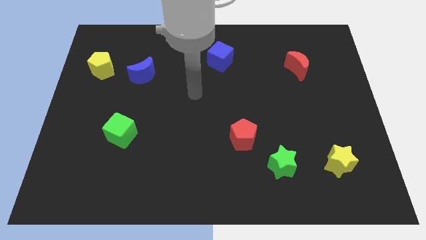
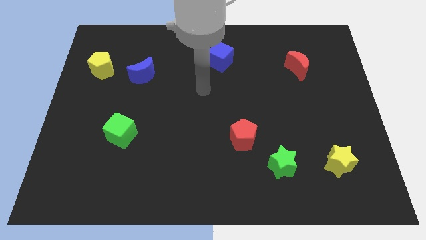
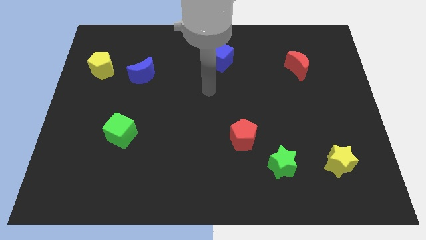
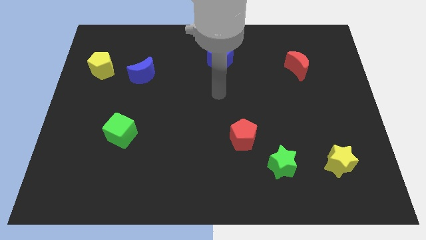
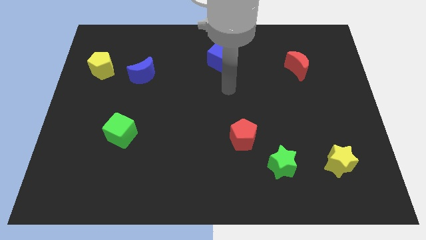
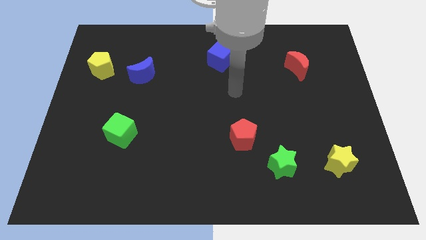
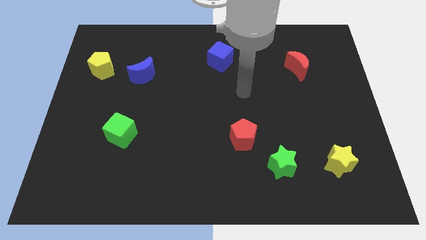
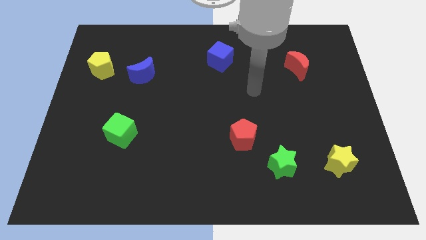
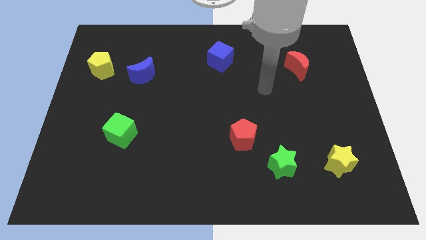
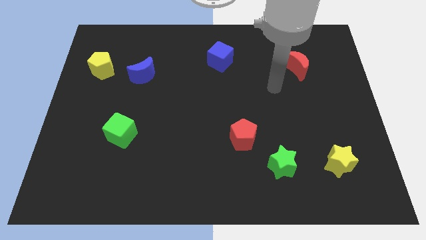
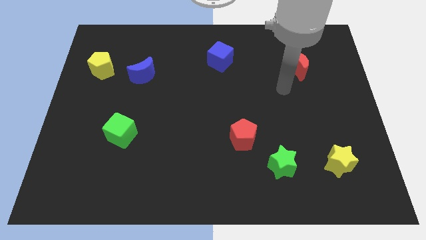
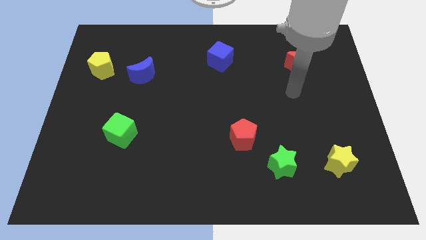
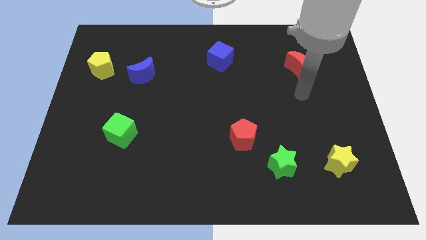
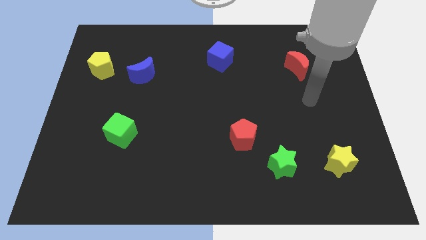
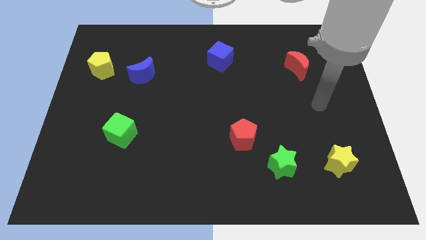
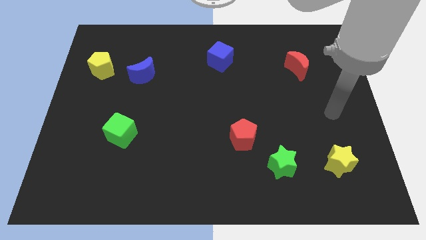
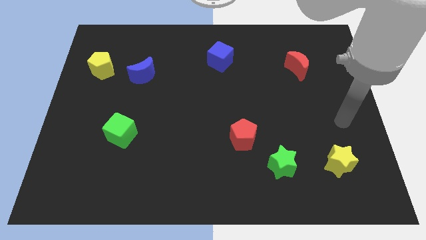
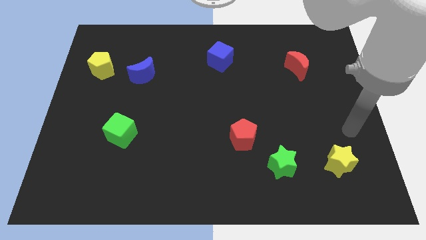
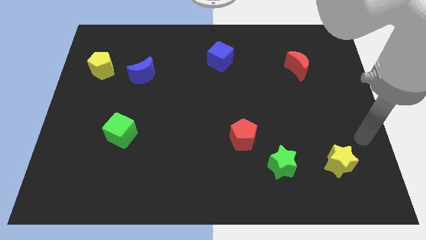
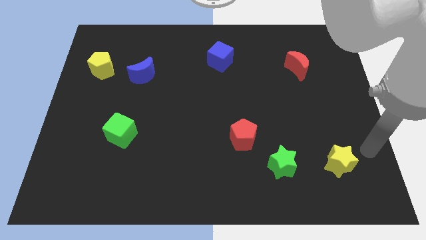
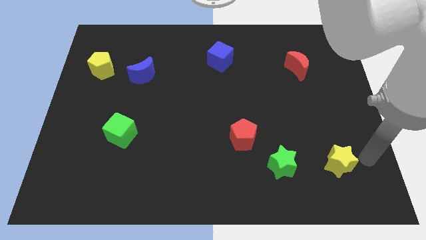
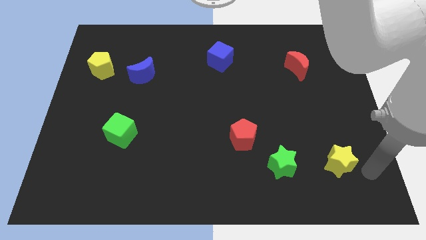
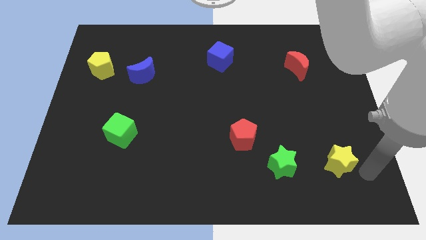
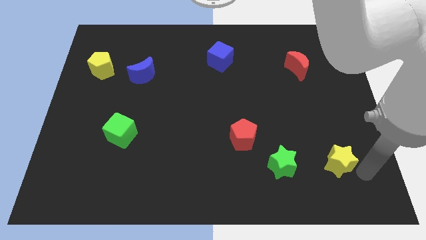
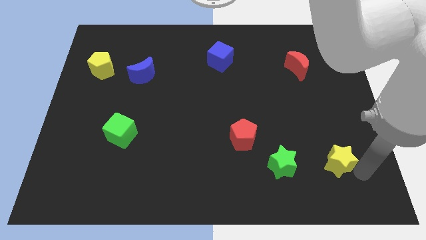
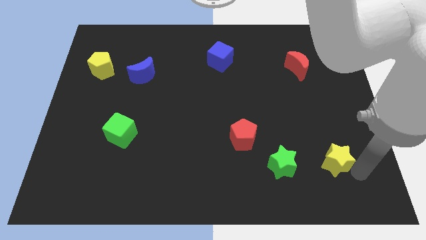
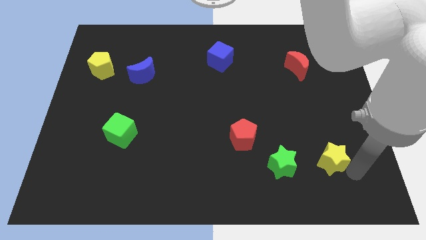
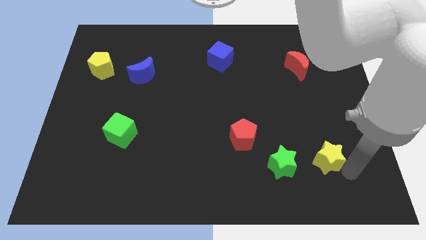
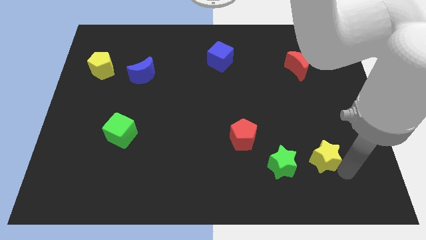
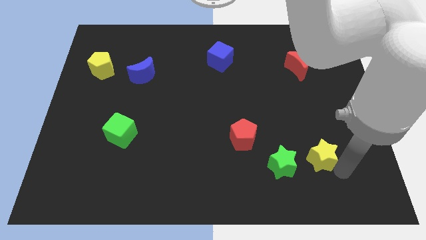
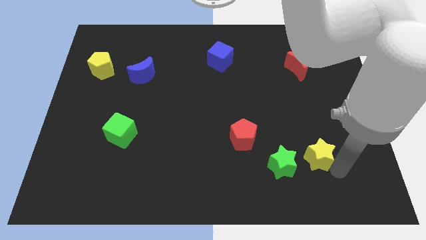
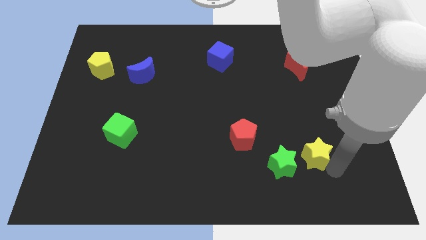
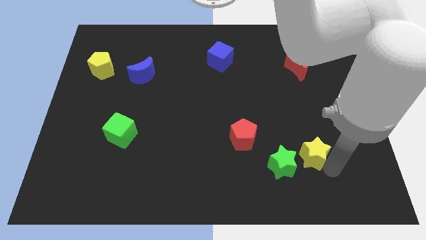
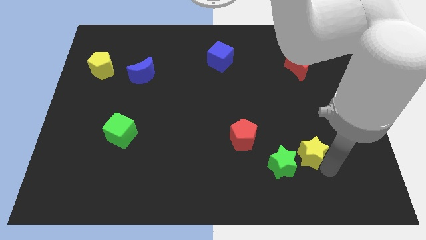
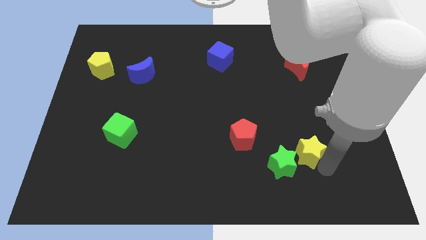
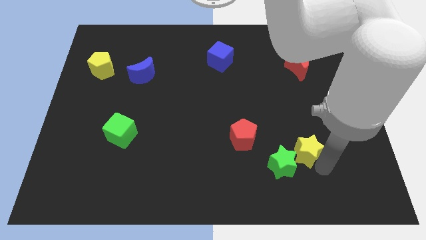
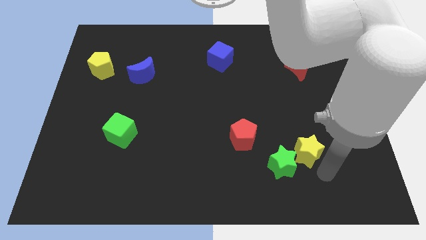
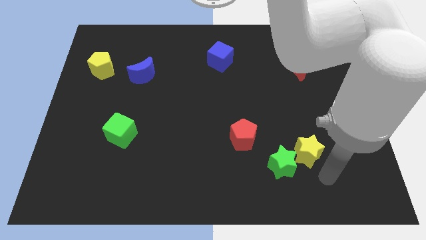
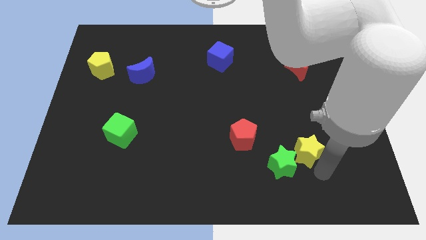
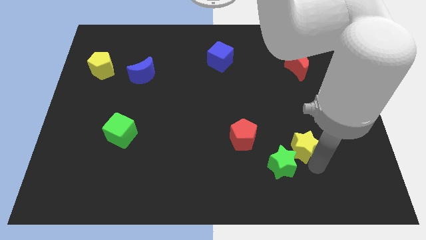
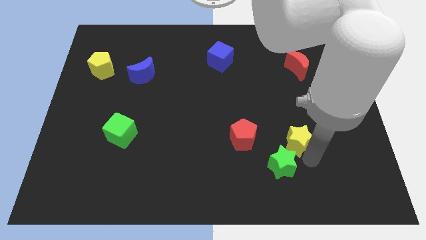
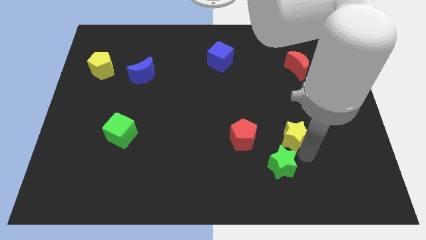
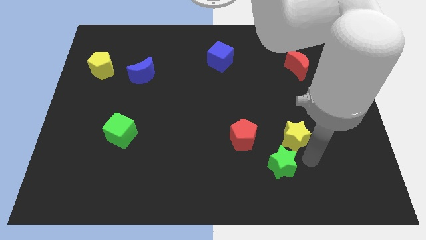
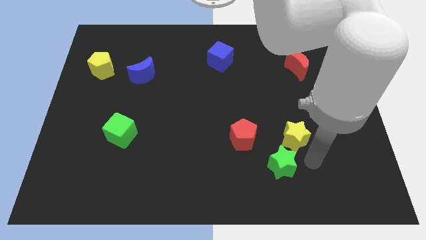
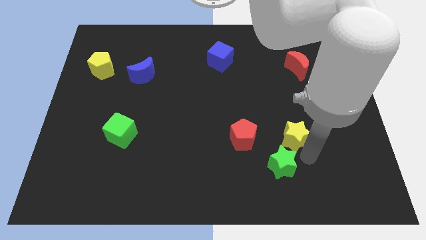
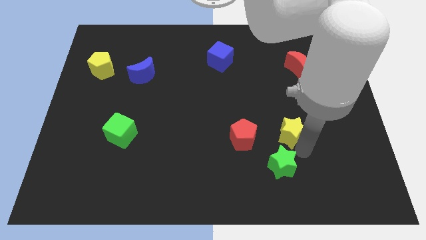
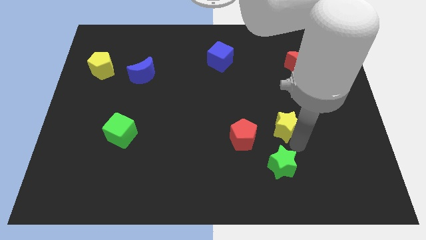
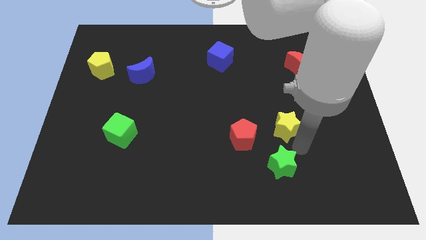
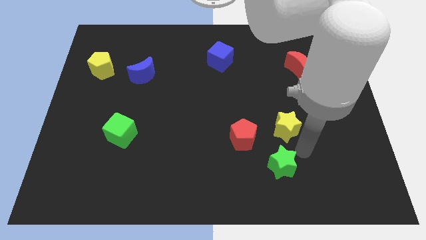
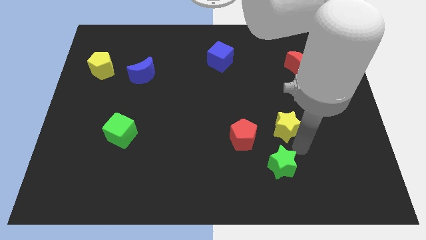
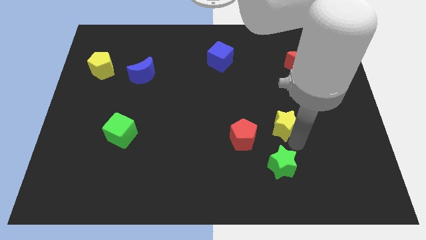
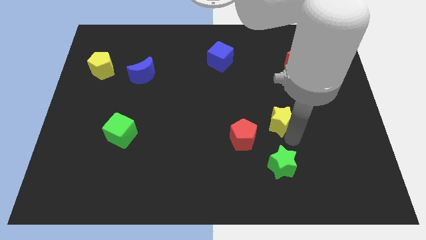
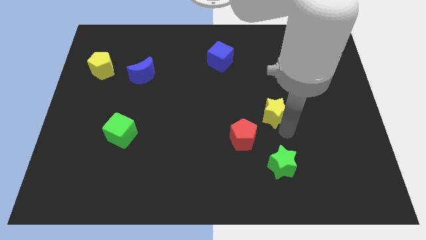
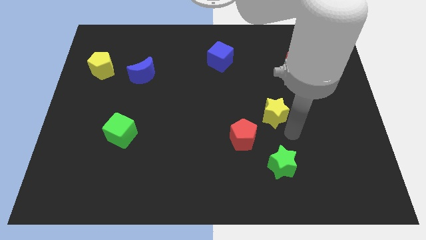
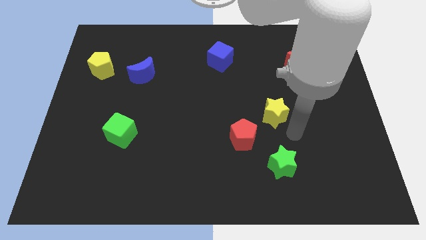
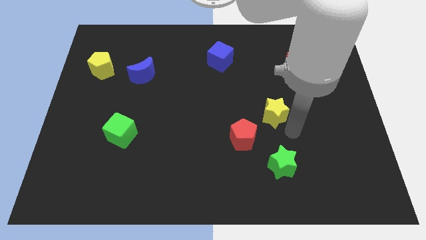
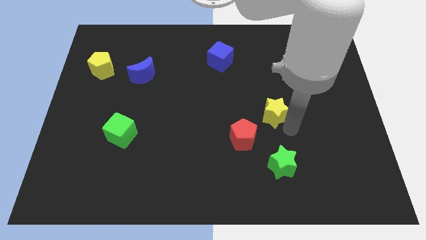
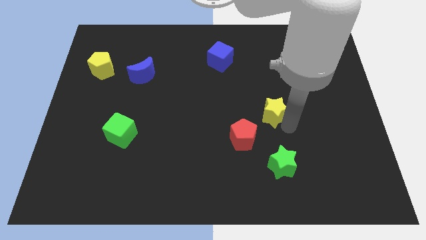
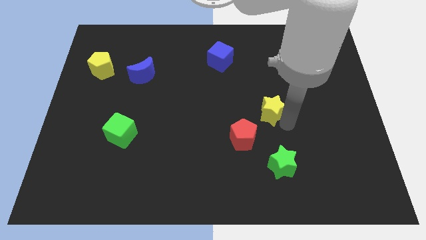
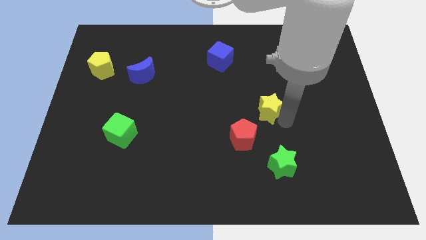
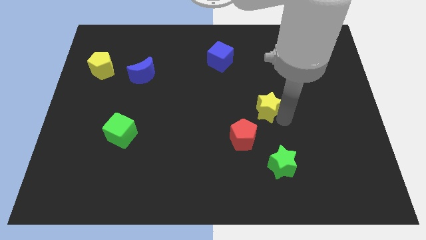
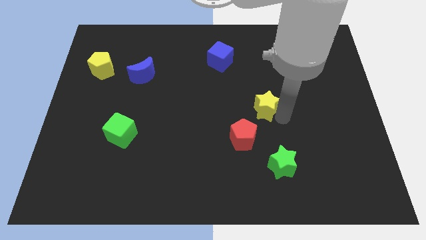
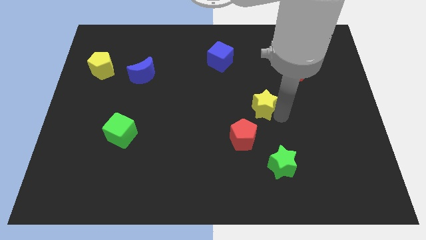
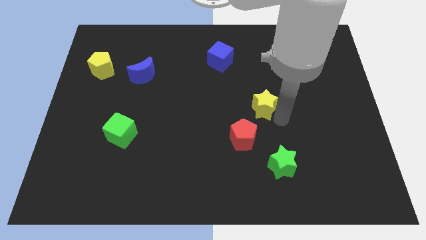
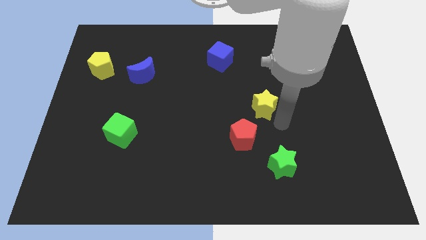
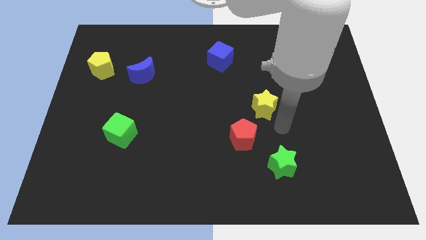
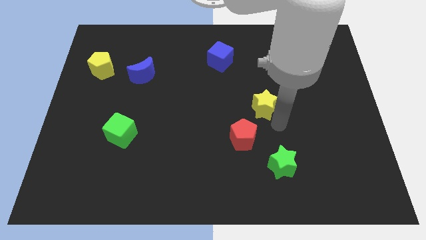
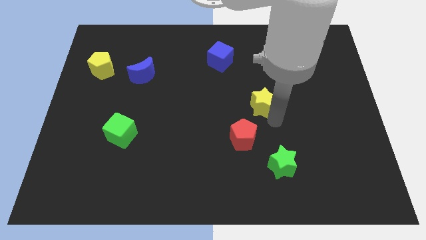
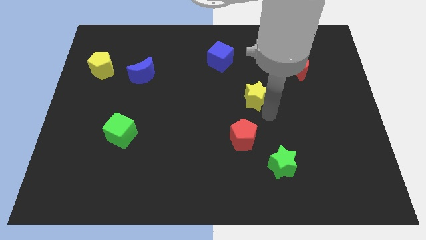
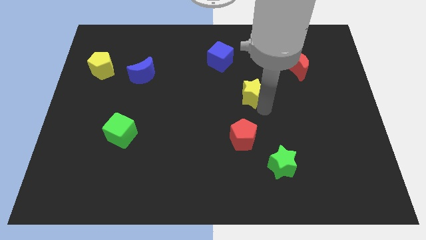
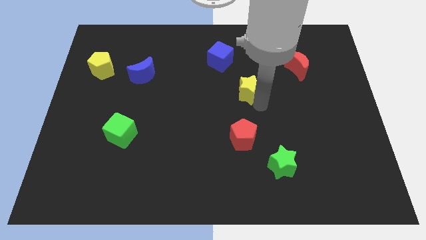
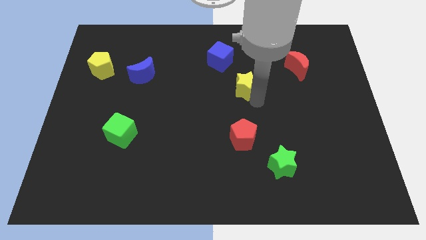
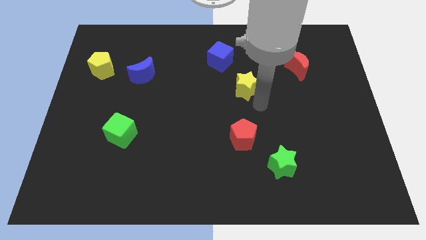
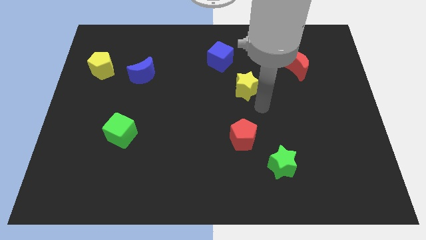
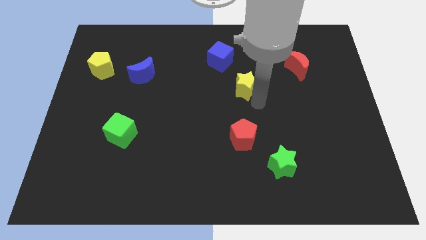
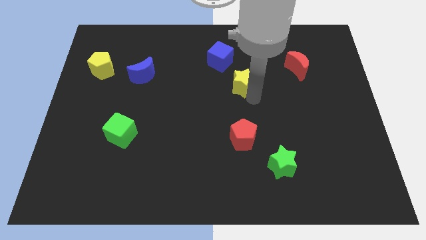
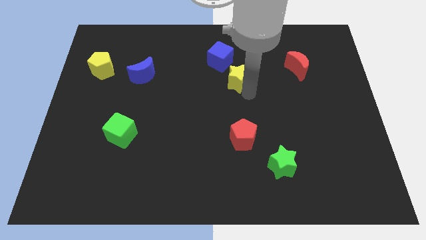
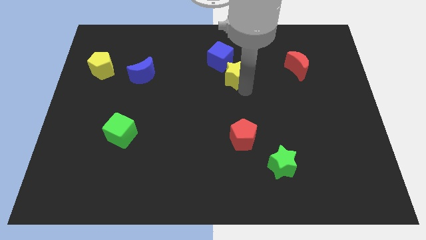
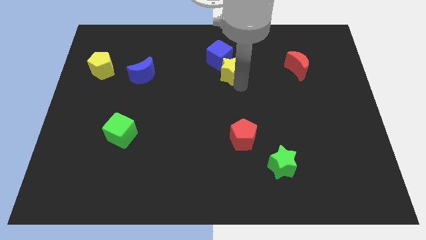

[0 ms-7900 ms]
push the yellow star next to the blue cube
